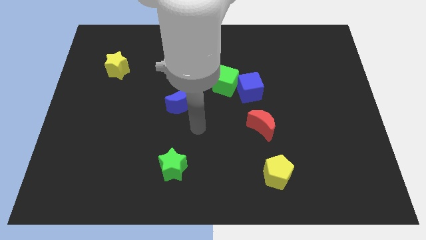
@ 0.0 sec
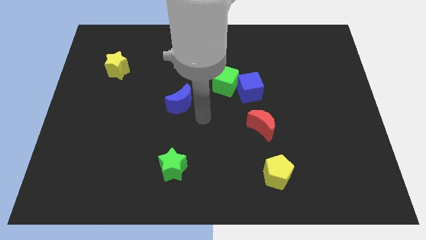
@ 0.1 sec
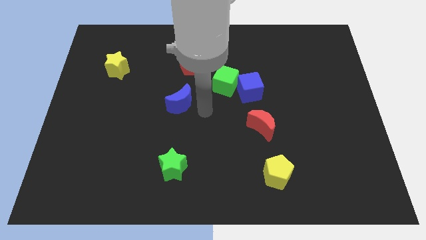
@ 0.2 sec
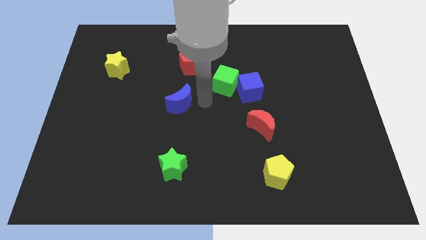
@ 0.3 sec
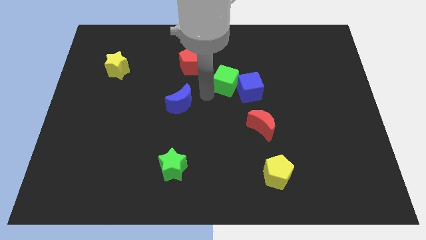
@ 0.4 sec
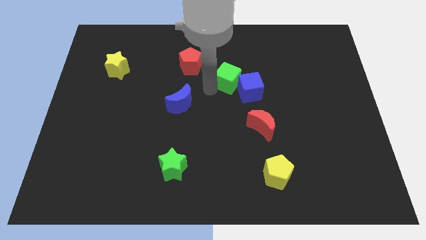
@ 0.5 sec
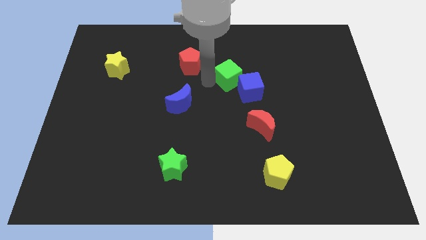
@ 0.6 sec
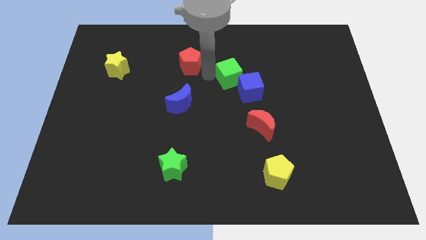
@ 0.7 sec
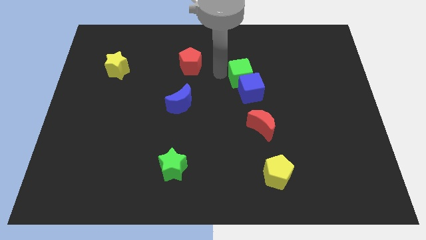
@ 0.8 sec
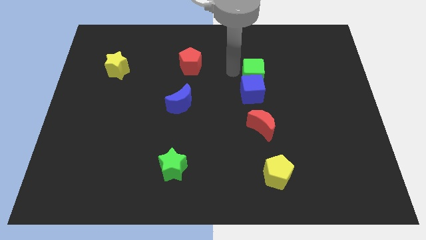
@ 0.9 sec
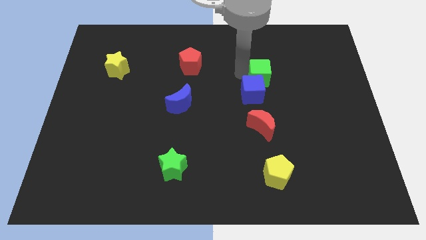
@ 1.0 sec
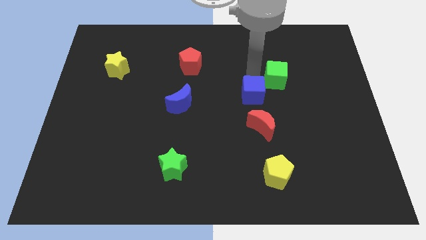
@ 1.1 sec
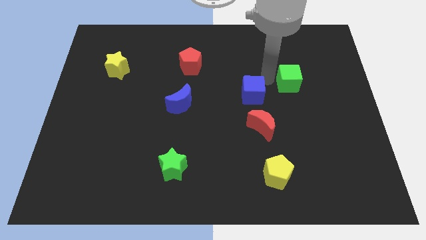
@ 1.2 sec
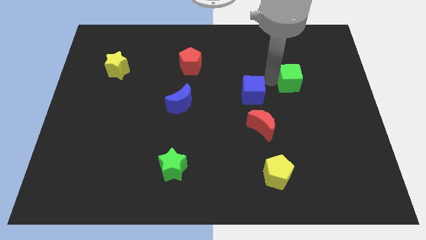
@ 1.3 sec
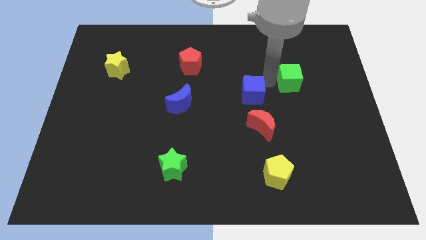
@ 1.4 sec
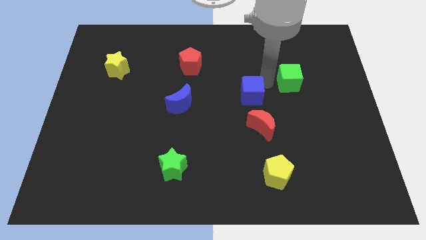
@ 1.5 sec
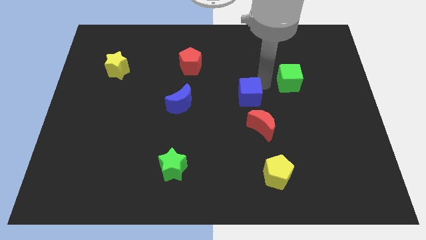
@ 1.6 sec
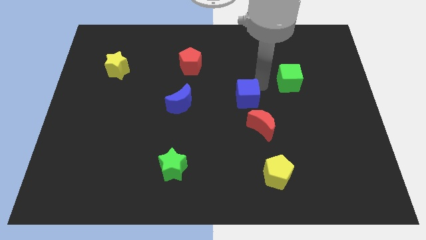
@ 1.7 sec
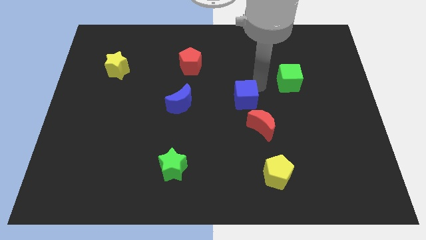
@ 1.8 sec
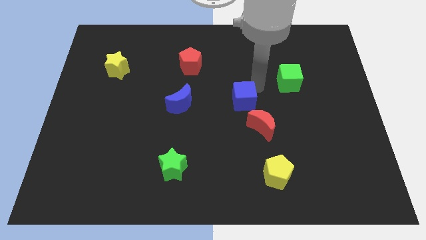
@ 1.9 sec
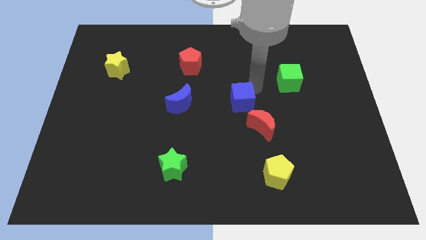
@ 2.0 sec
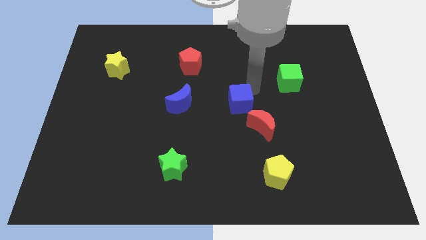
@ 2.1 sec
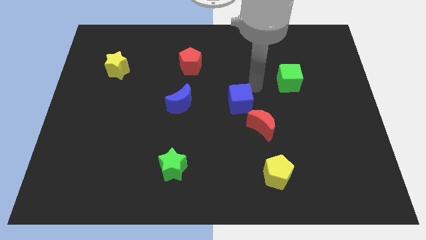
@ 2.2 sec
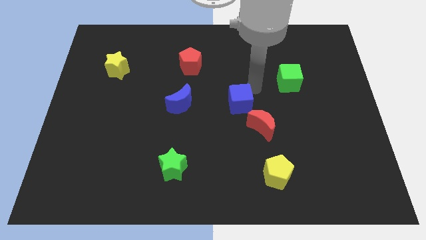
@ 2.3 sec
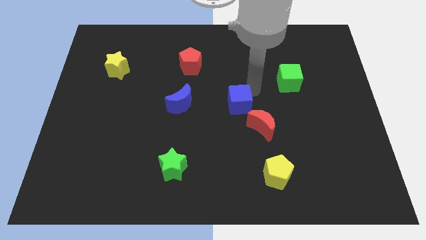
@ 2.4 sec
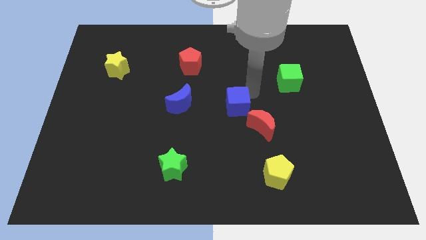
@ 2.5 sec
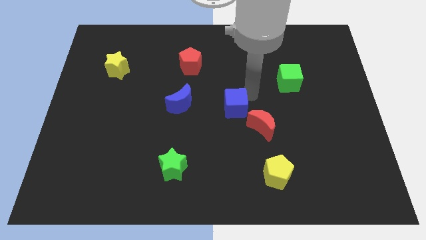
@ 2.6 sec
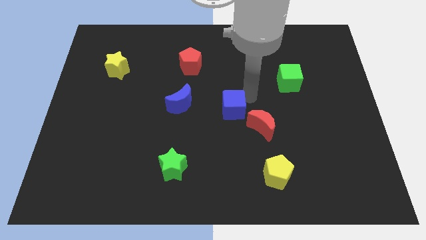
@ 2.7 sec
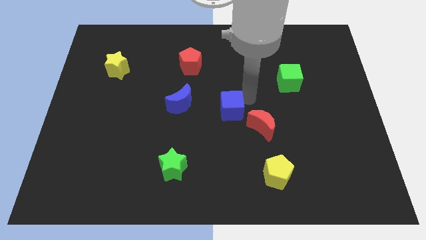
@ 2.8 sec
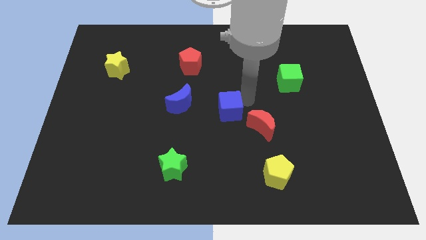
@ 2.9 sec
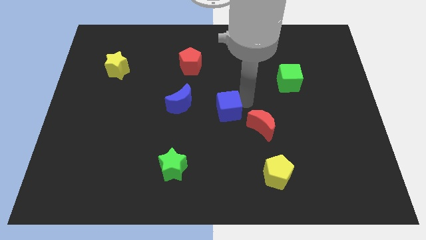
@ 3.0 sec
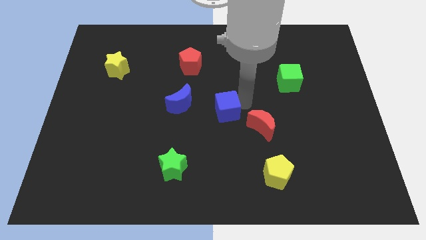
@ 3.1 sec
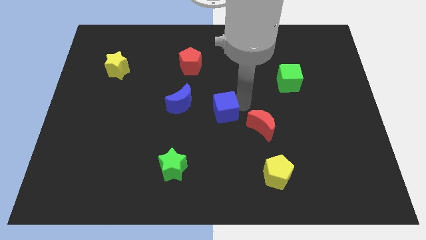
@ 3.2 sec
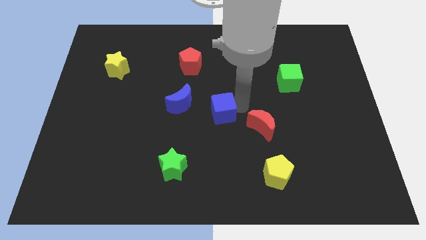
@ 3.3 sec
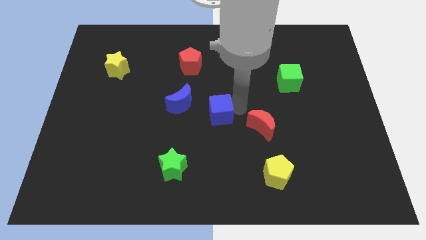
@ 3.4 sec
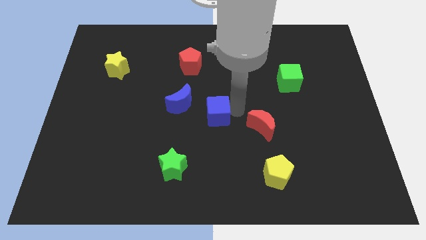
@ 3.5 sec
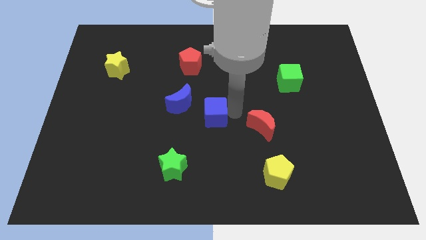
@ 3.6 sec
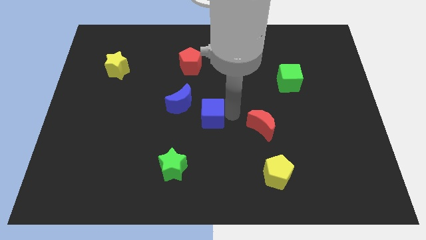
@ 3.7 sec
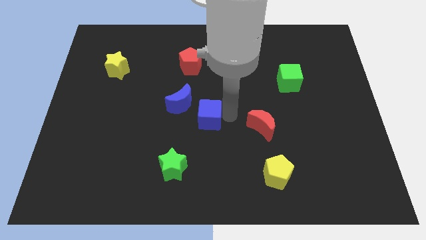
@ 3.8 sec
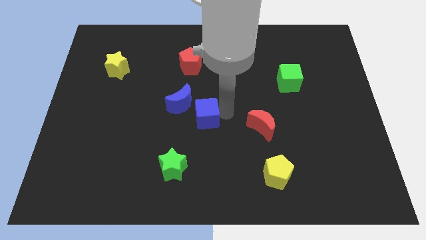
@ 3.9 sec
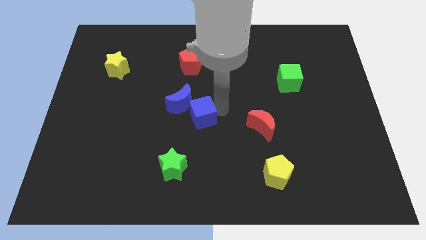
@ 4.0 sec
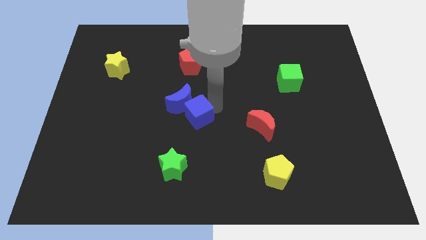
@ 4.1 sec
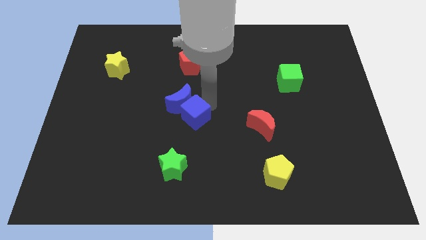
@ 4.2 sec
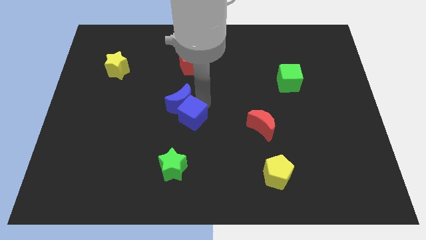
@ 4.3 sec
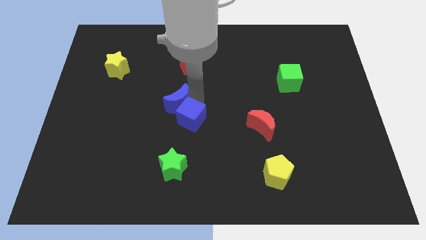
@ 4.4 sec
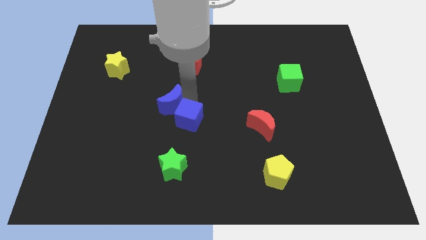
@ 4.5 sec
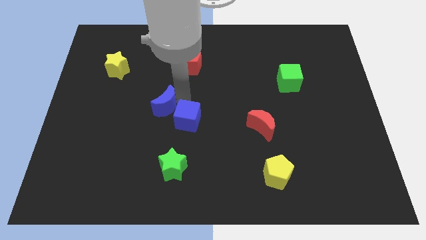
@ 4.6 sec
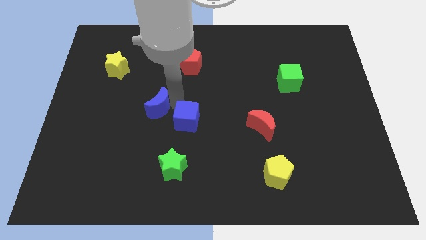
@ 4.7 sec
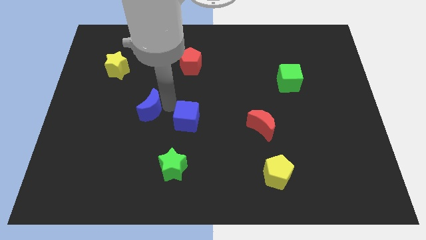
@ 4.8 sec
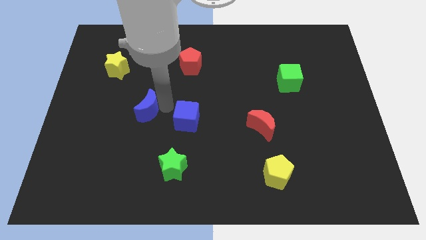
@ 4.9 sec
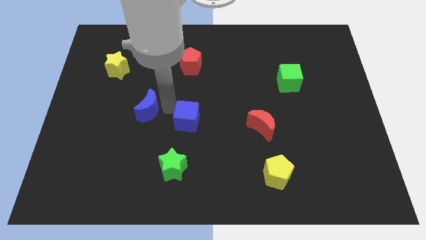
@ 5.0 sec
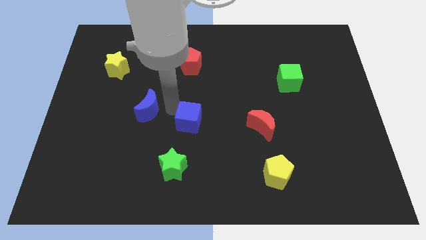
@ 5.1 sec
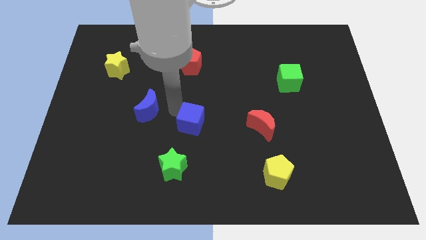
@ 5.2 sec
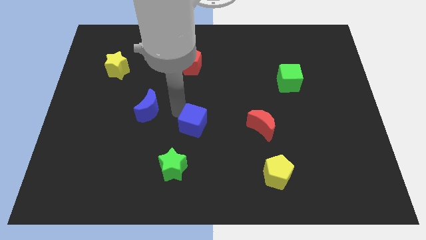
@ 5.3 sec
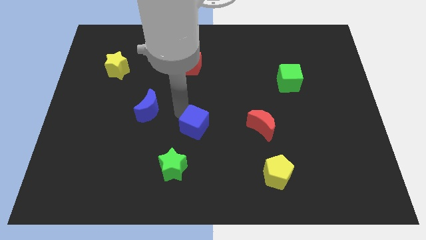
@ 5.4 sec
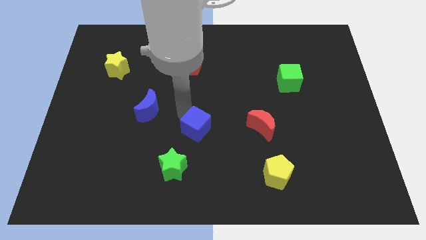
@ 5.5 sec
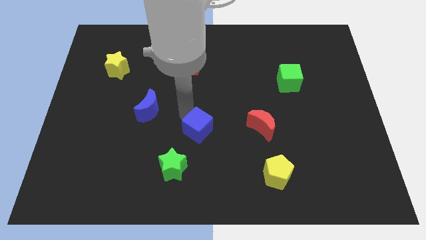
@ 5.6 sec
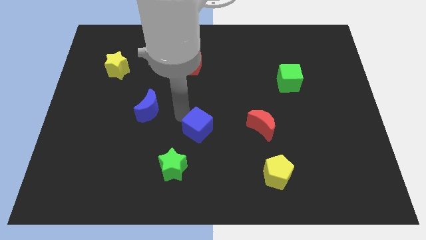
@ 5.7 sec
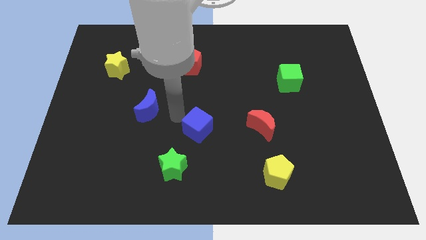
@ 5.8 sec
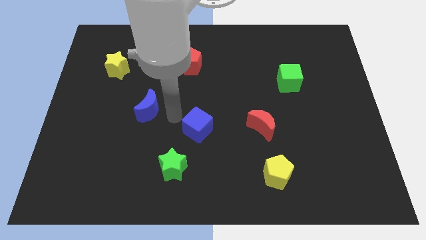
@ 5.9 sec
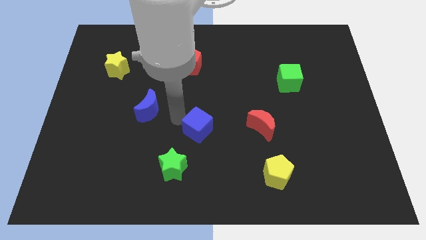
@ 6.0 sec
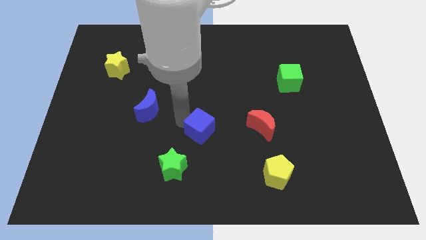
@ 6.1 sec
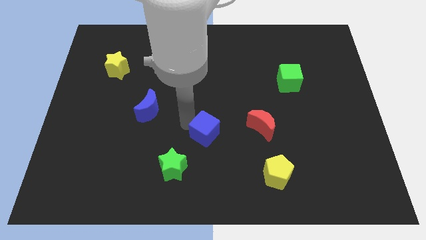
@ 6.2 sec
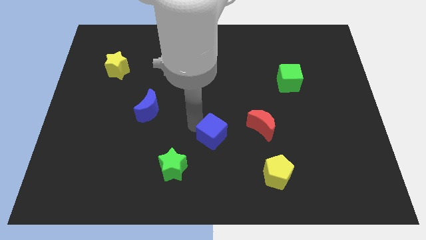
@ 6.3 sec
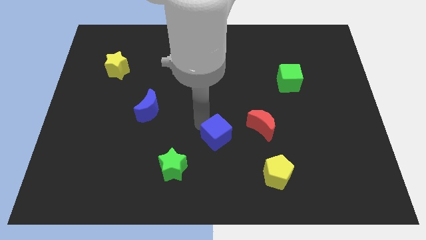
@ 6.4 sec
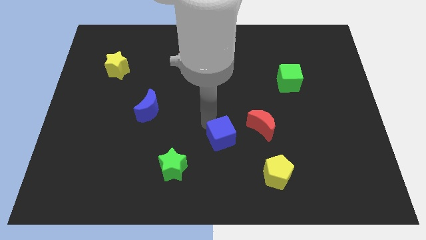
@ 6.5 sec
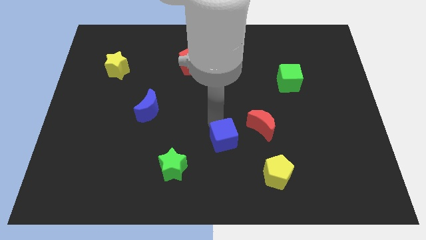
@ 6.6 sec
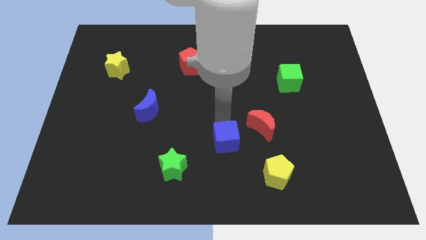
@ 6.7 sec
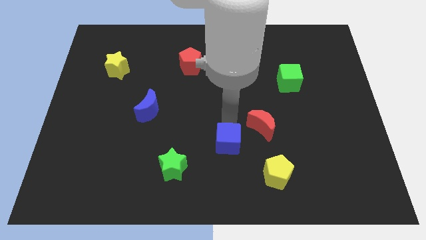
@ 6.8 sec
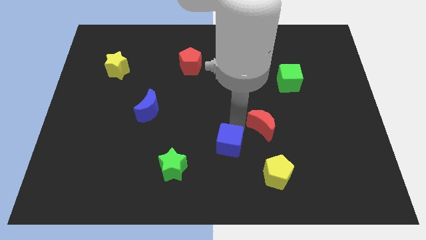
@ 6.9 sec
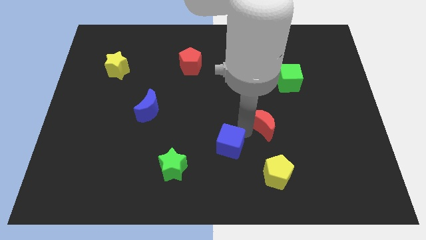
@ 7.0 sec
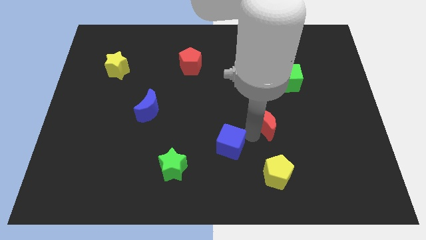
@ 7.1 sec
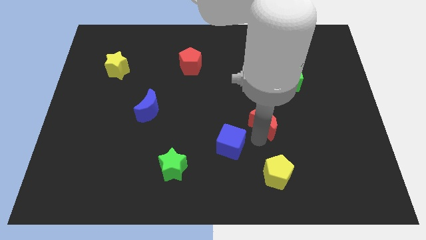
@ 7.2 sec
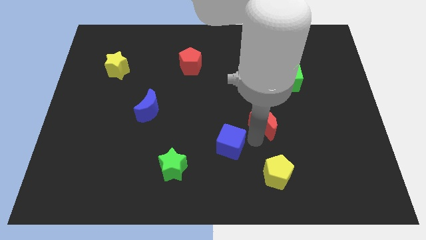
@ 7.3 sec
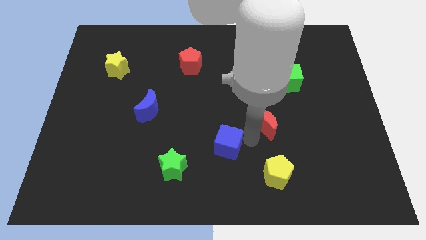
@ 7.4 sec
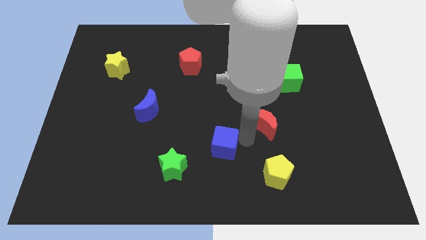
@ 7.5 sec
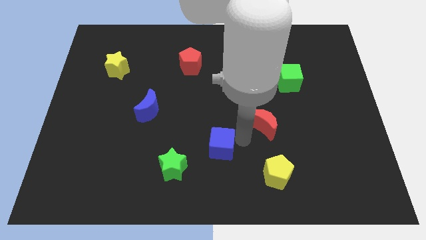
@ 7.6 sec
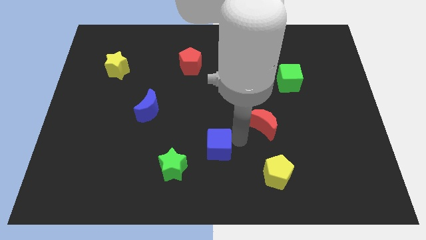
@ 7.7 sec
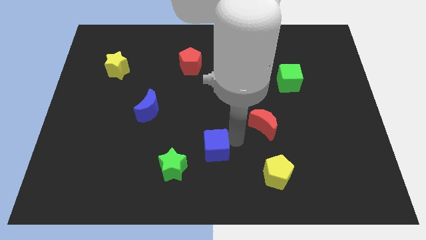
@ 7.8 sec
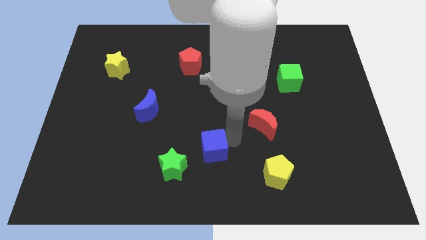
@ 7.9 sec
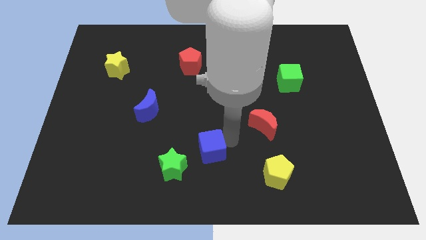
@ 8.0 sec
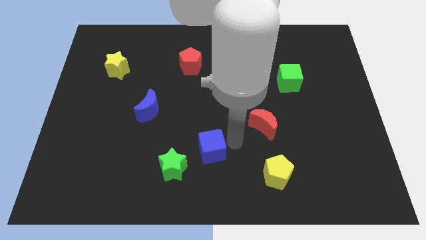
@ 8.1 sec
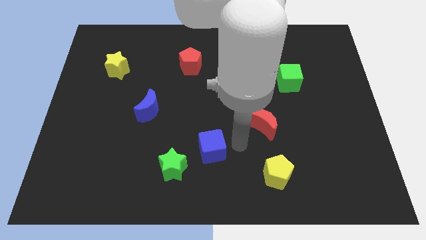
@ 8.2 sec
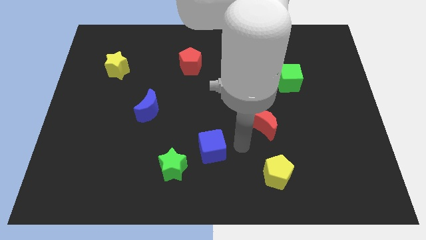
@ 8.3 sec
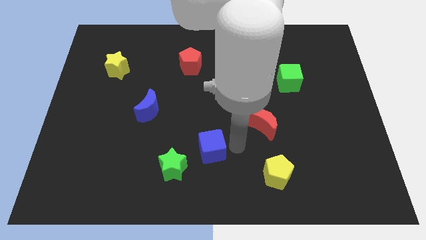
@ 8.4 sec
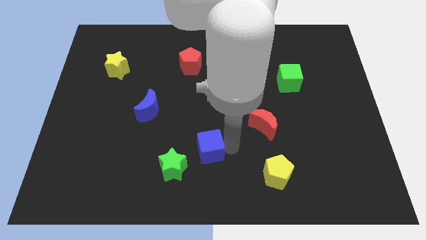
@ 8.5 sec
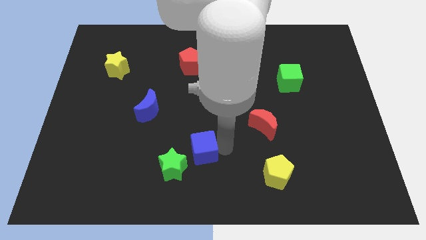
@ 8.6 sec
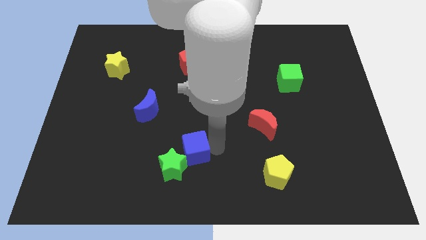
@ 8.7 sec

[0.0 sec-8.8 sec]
push the blue cube next to the green star
